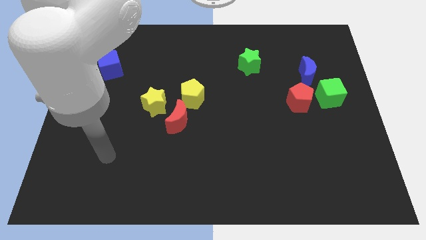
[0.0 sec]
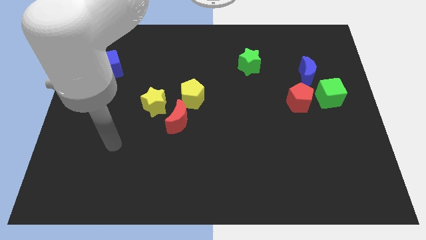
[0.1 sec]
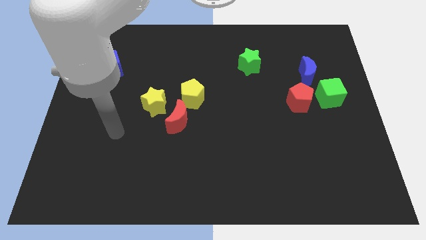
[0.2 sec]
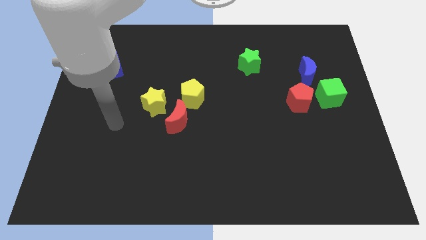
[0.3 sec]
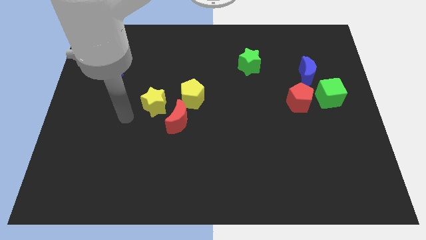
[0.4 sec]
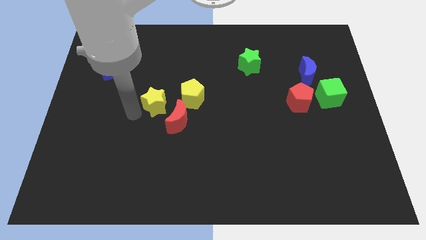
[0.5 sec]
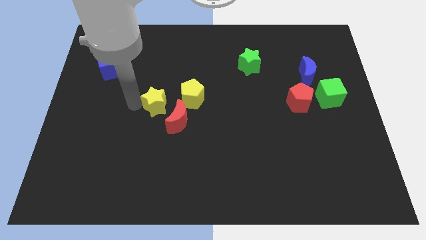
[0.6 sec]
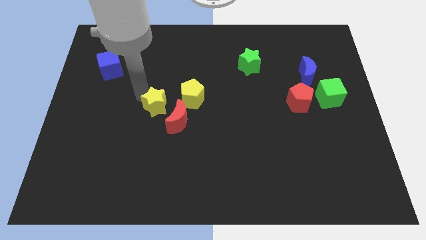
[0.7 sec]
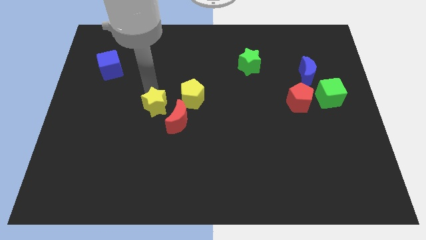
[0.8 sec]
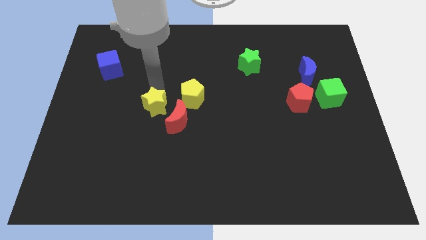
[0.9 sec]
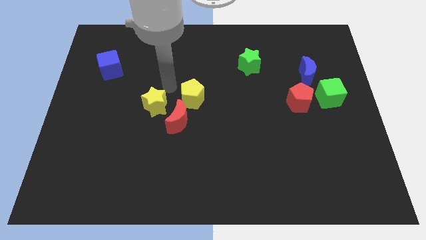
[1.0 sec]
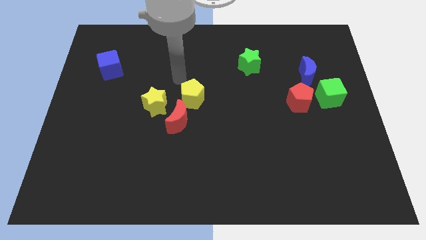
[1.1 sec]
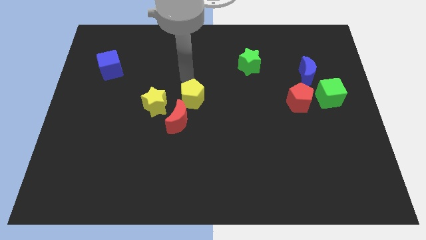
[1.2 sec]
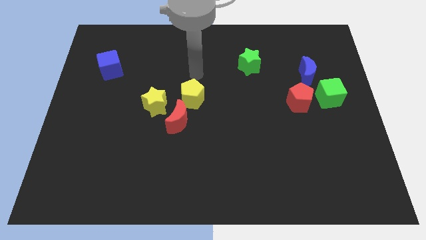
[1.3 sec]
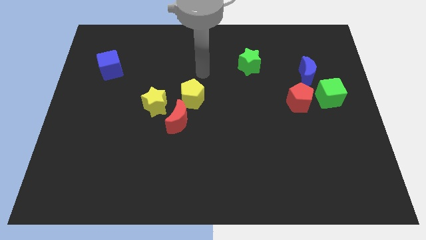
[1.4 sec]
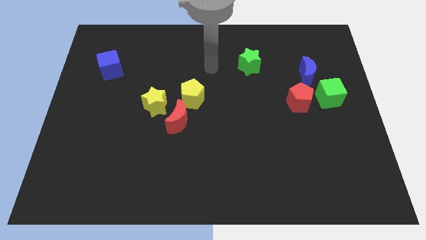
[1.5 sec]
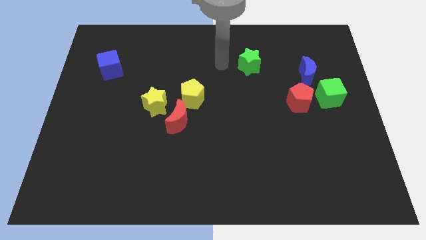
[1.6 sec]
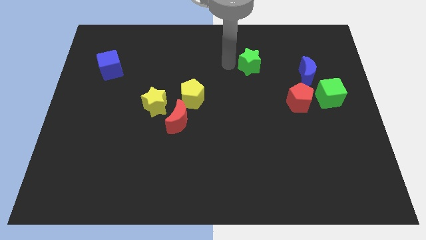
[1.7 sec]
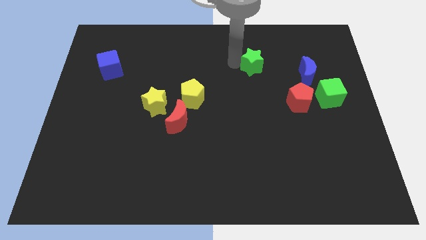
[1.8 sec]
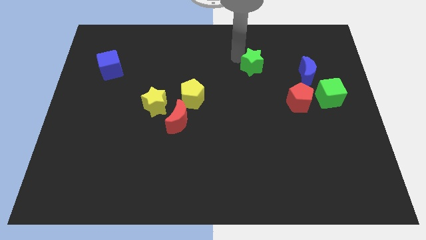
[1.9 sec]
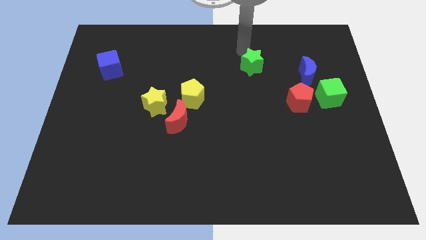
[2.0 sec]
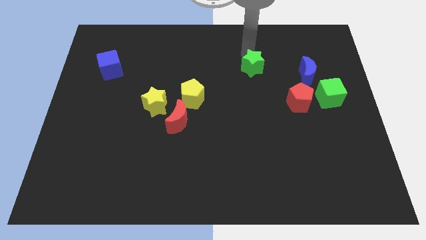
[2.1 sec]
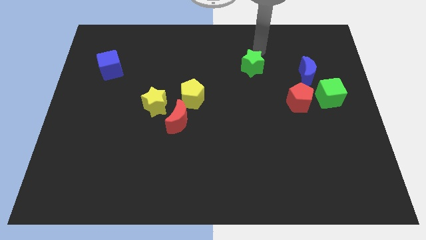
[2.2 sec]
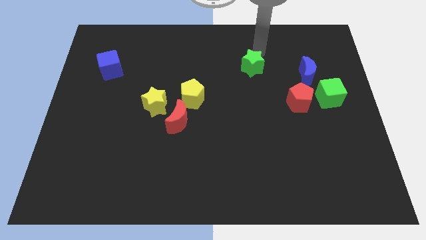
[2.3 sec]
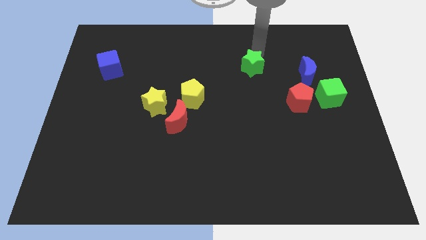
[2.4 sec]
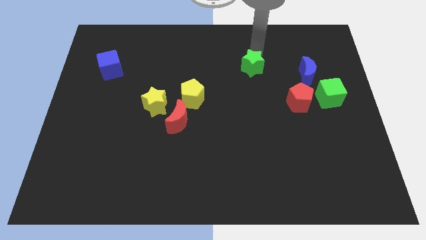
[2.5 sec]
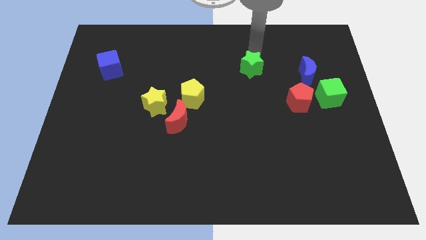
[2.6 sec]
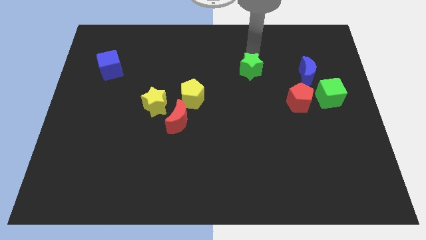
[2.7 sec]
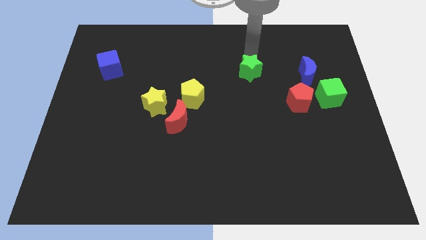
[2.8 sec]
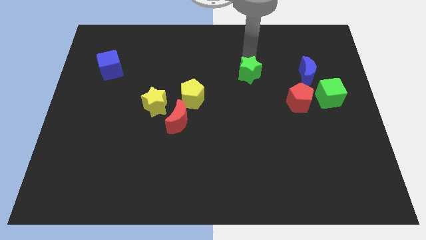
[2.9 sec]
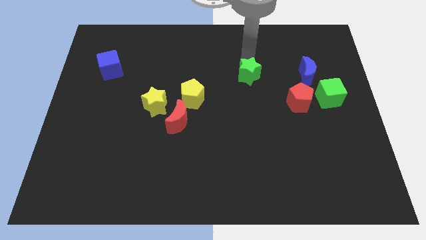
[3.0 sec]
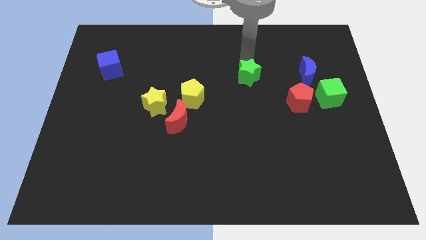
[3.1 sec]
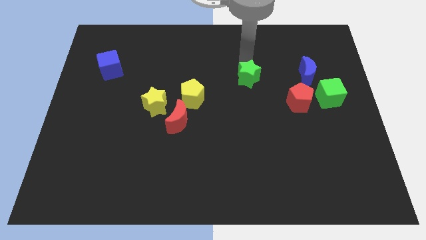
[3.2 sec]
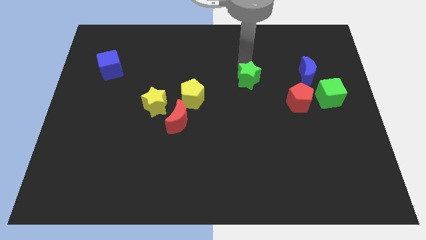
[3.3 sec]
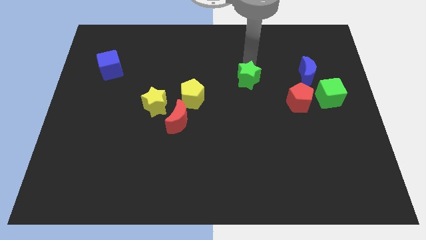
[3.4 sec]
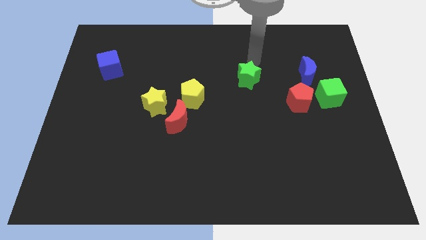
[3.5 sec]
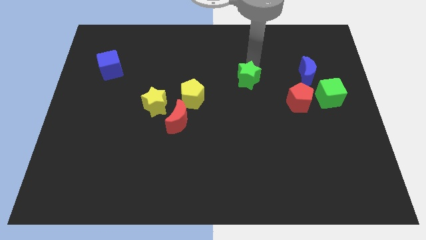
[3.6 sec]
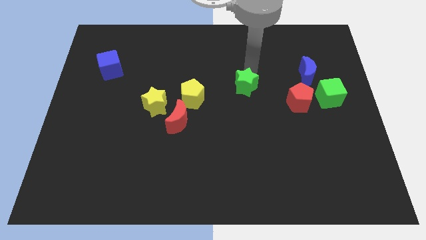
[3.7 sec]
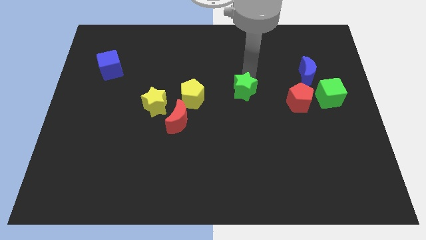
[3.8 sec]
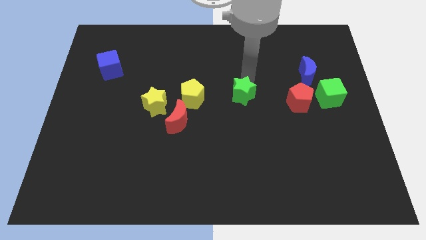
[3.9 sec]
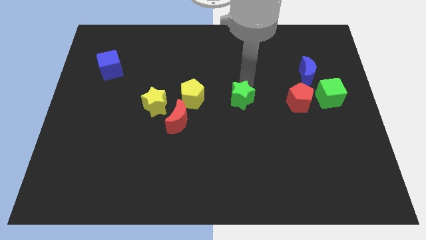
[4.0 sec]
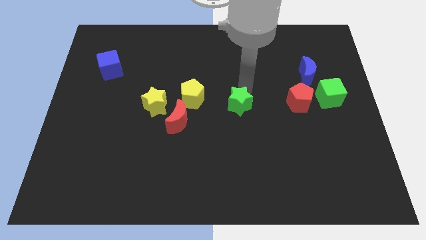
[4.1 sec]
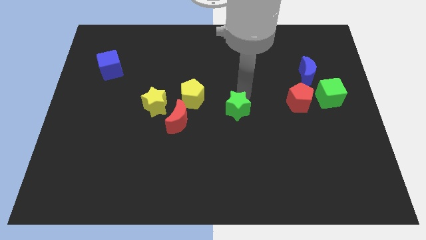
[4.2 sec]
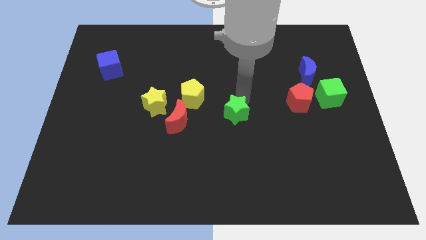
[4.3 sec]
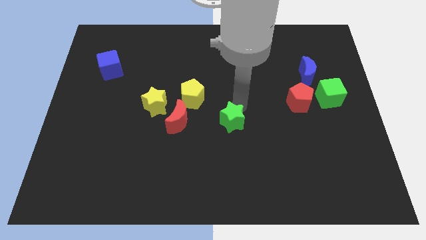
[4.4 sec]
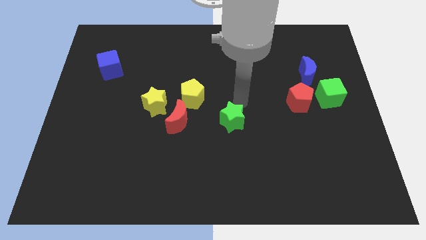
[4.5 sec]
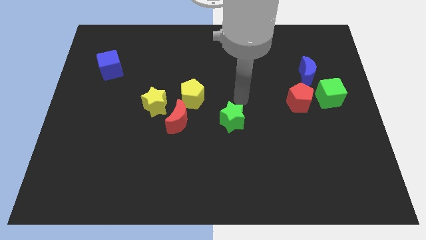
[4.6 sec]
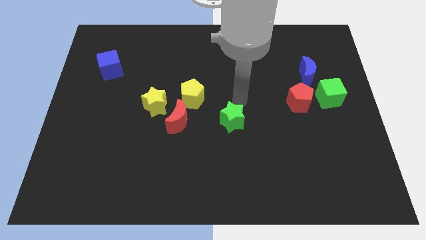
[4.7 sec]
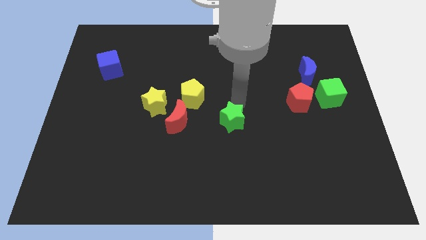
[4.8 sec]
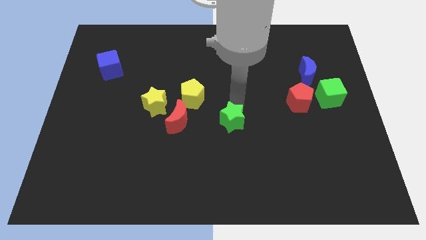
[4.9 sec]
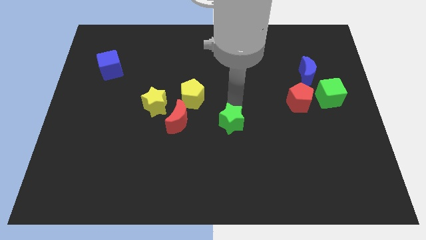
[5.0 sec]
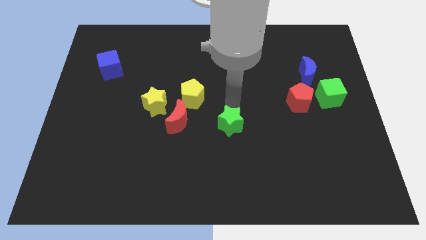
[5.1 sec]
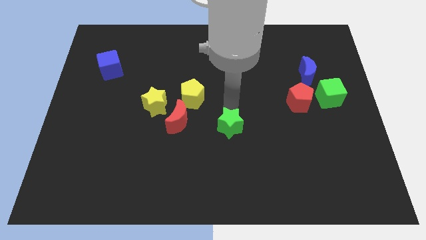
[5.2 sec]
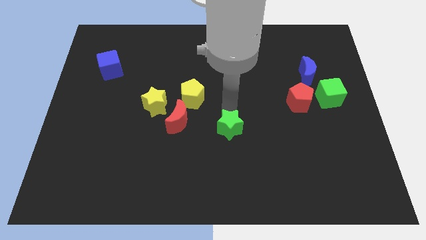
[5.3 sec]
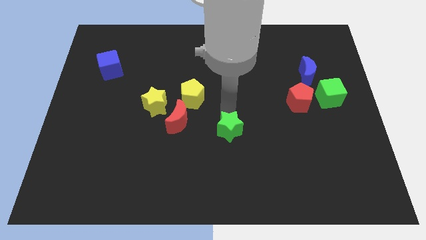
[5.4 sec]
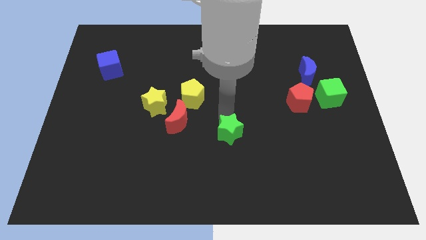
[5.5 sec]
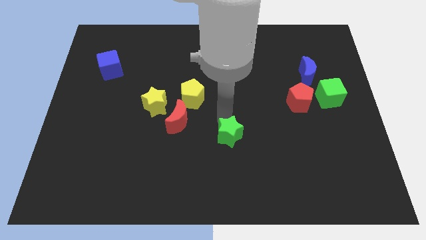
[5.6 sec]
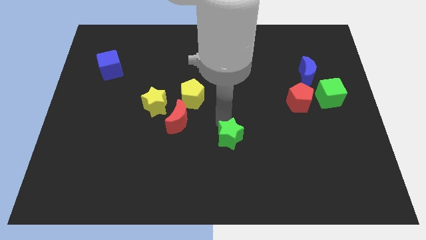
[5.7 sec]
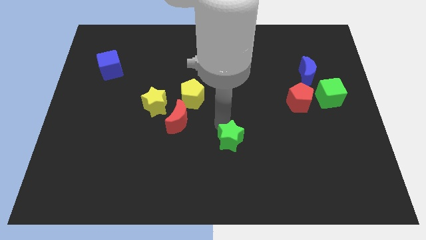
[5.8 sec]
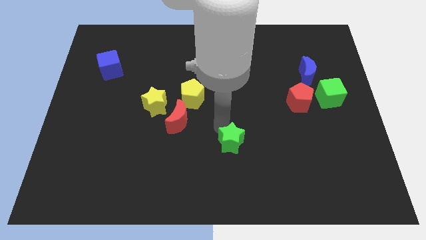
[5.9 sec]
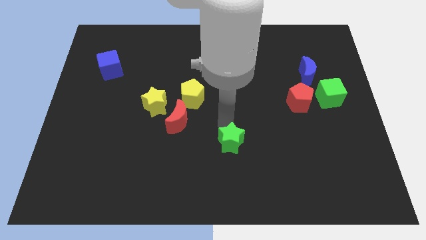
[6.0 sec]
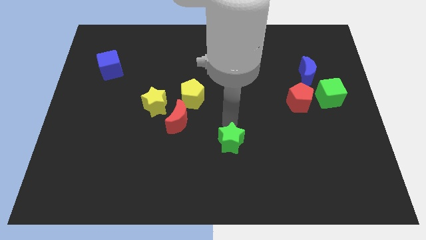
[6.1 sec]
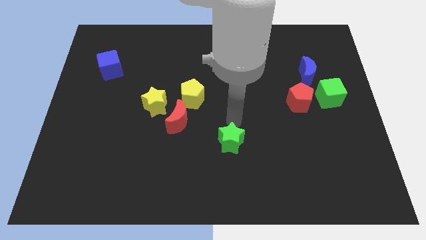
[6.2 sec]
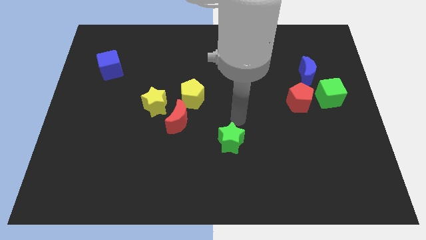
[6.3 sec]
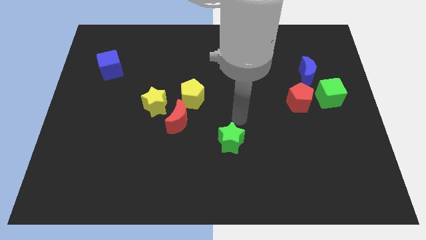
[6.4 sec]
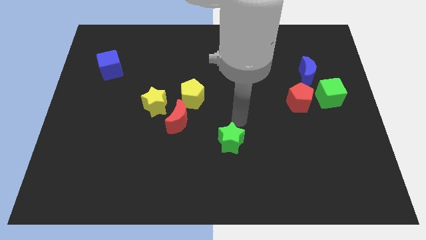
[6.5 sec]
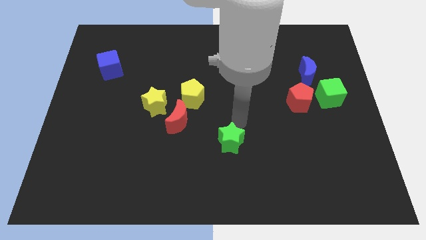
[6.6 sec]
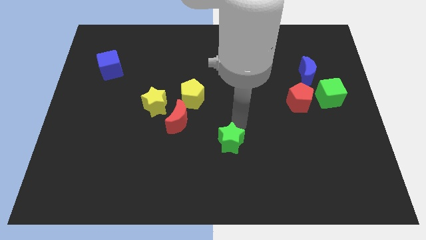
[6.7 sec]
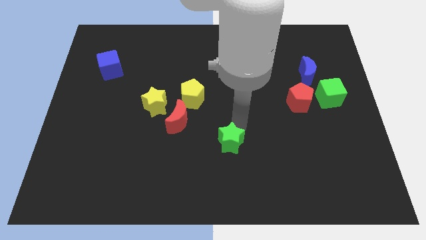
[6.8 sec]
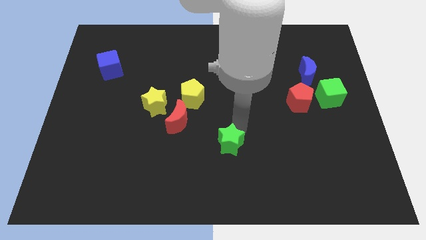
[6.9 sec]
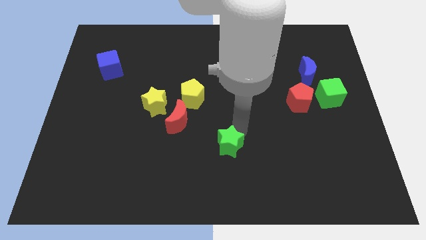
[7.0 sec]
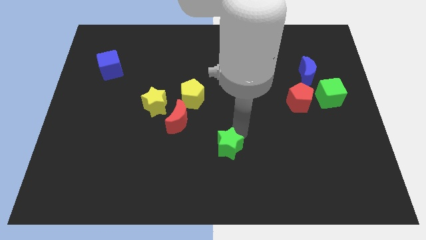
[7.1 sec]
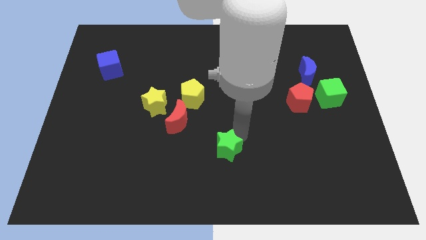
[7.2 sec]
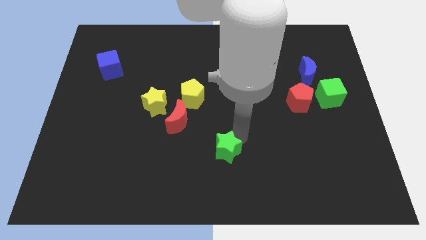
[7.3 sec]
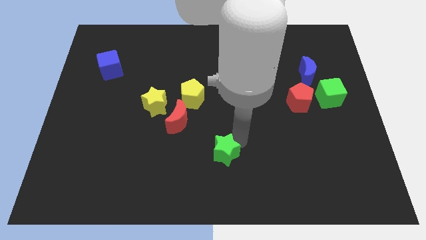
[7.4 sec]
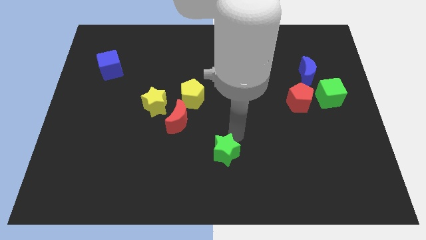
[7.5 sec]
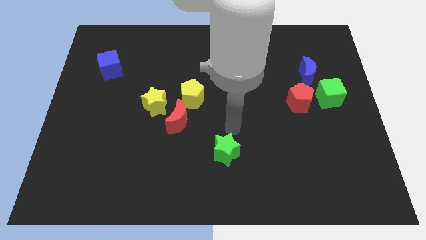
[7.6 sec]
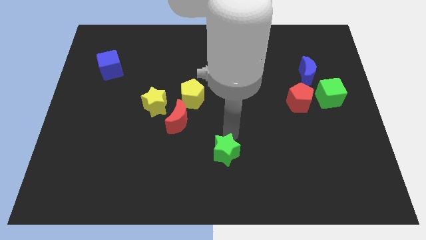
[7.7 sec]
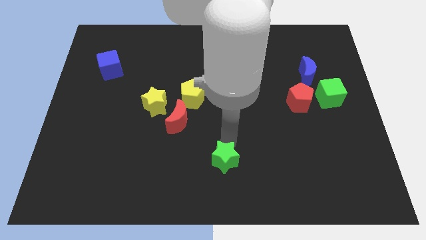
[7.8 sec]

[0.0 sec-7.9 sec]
put the green star to the bottom
